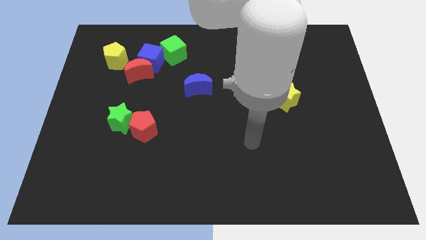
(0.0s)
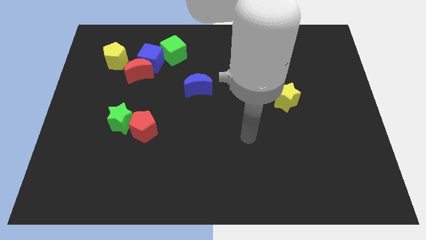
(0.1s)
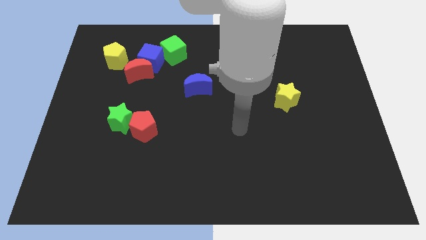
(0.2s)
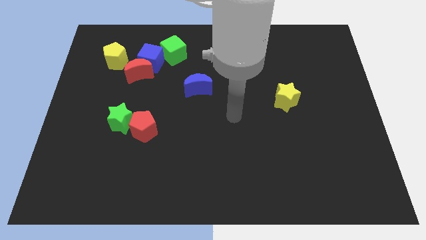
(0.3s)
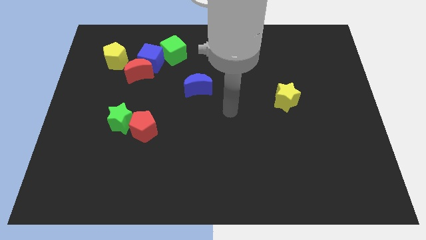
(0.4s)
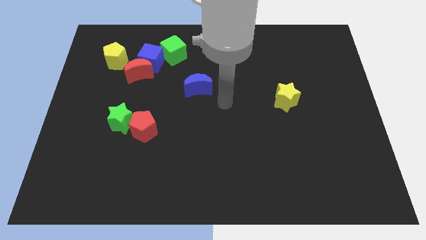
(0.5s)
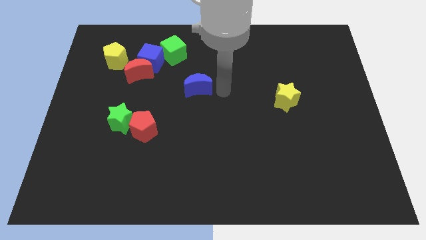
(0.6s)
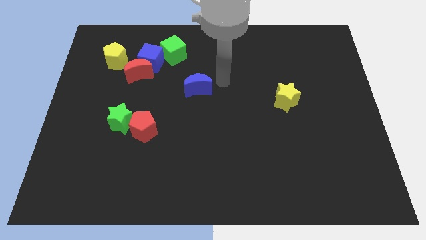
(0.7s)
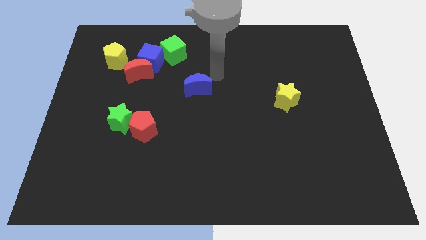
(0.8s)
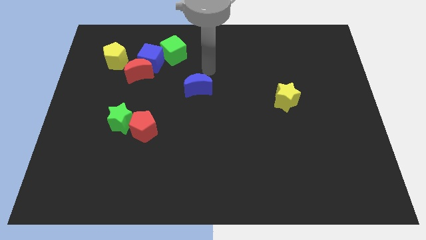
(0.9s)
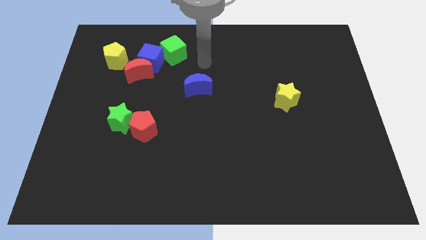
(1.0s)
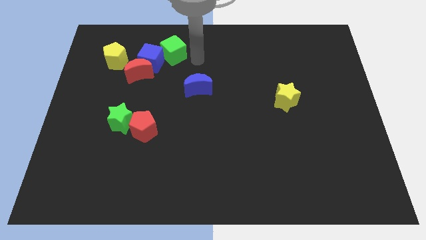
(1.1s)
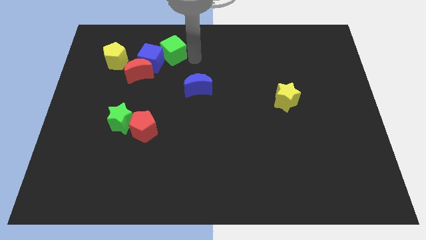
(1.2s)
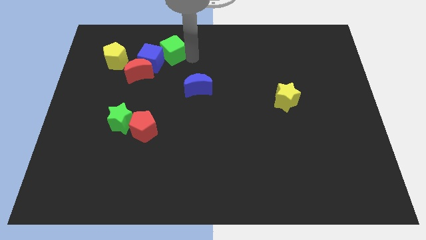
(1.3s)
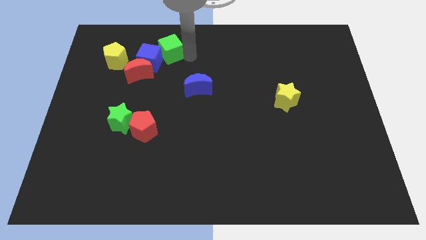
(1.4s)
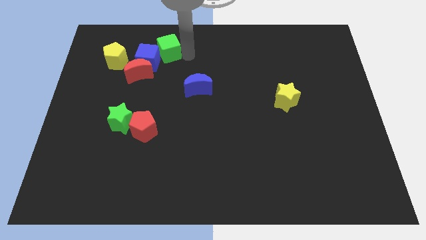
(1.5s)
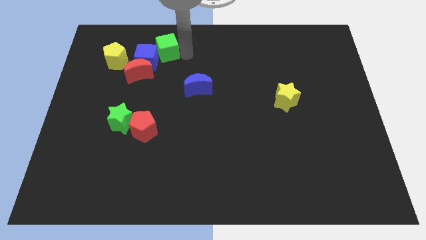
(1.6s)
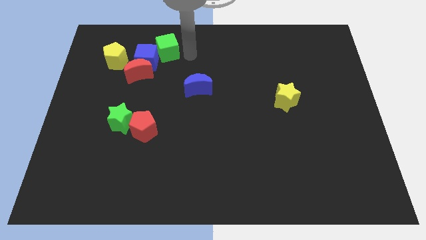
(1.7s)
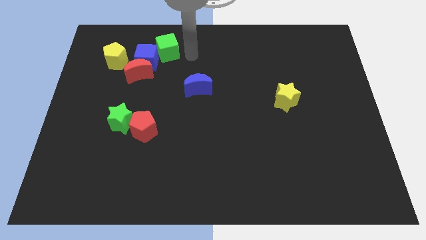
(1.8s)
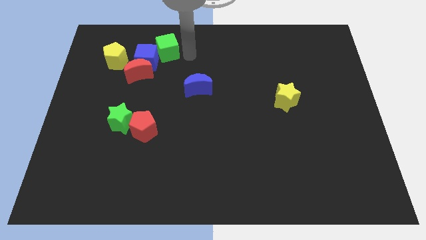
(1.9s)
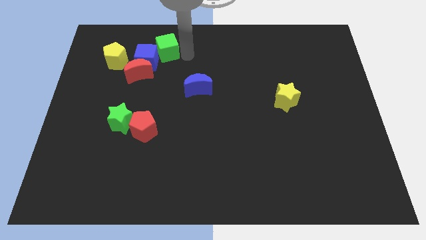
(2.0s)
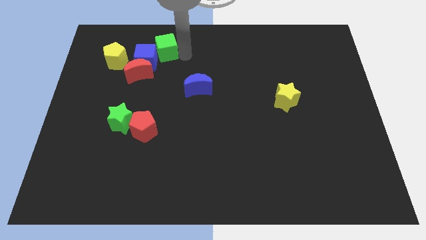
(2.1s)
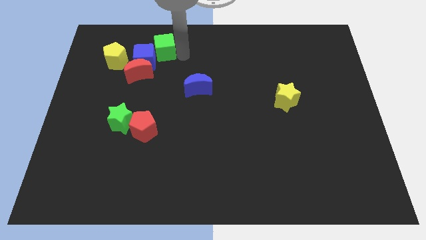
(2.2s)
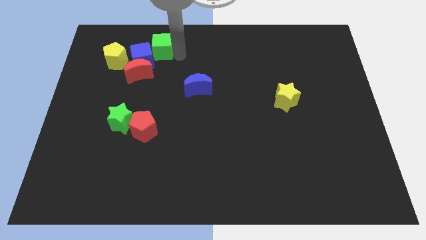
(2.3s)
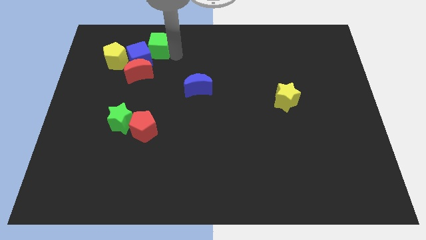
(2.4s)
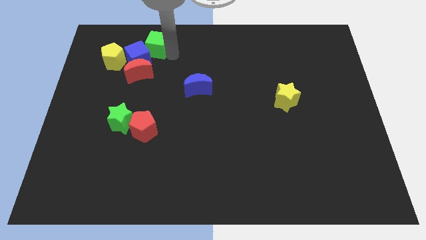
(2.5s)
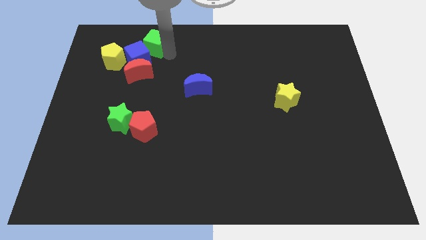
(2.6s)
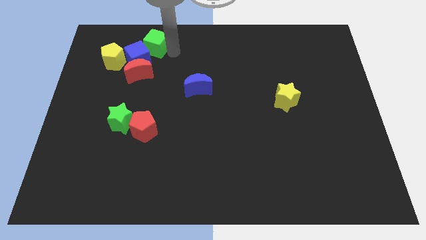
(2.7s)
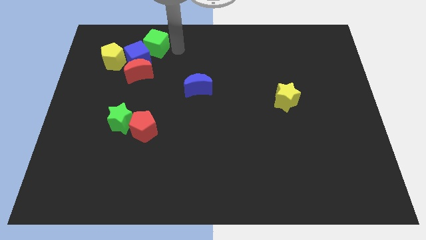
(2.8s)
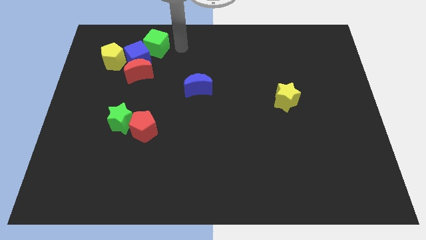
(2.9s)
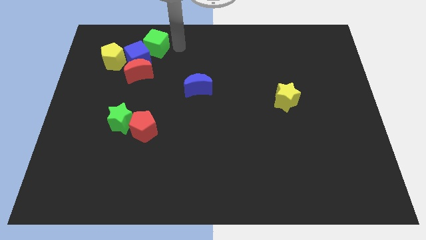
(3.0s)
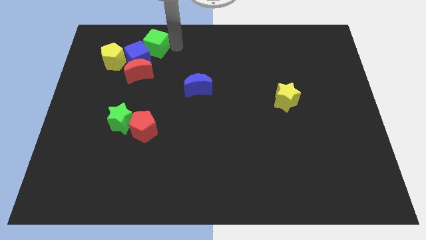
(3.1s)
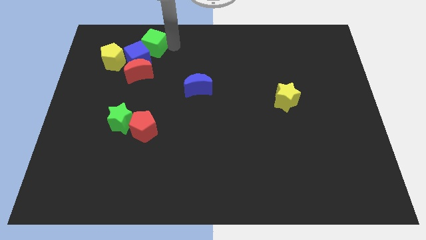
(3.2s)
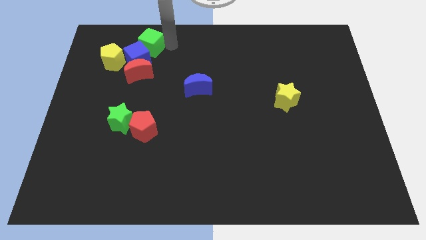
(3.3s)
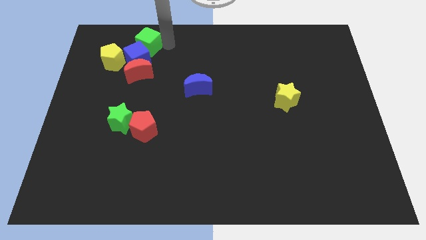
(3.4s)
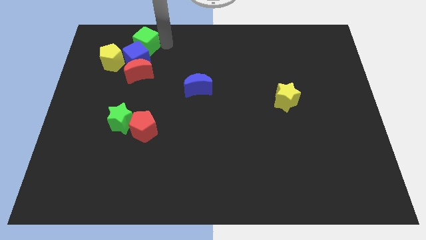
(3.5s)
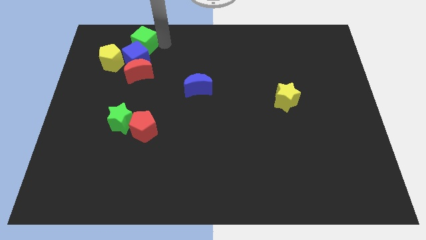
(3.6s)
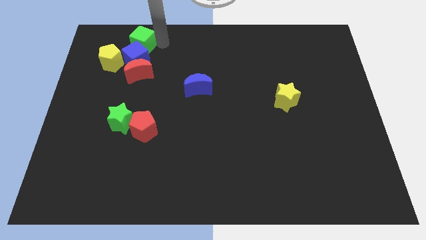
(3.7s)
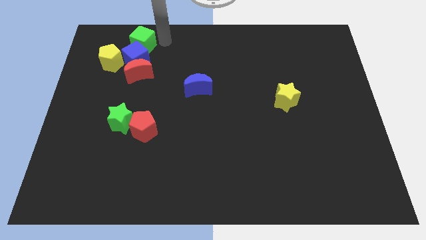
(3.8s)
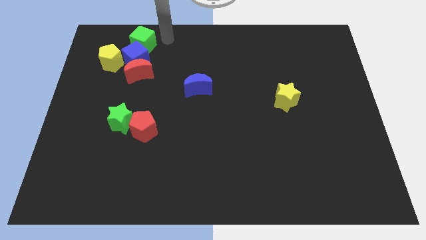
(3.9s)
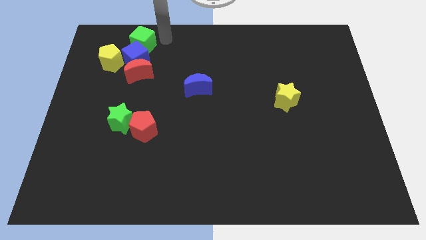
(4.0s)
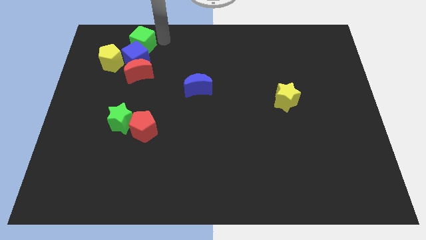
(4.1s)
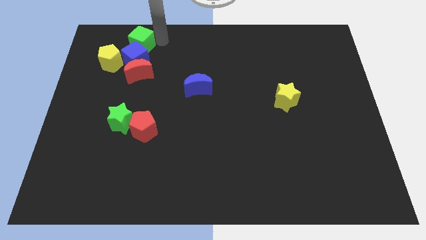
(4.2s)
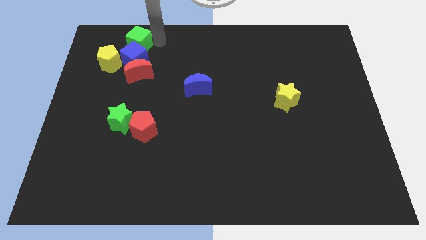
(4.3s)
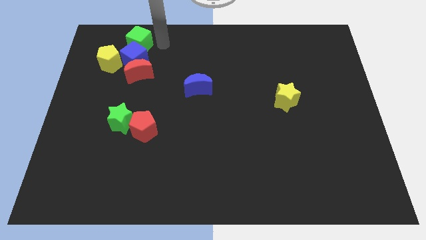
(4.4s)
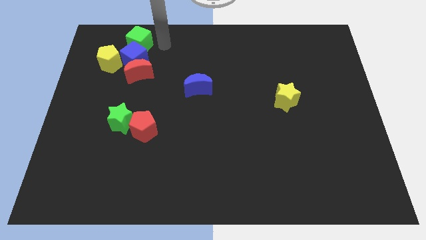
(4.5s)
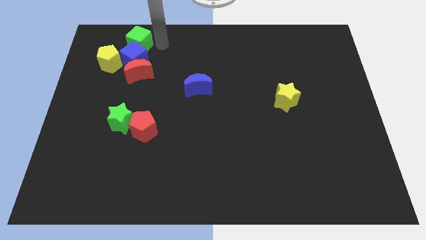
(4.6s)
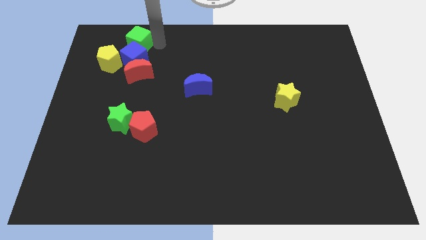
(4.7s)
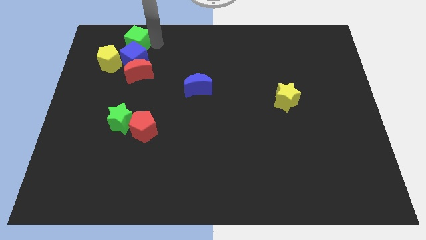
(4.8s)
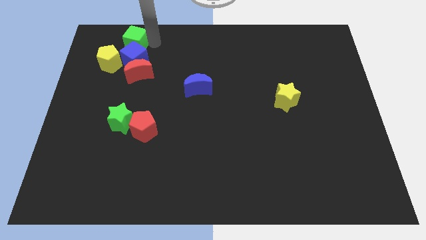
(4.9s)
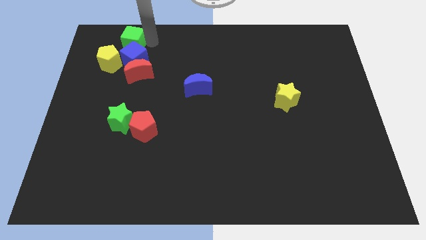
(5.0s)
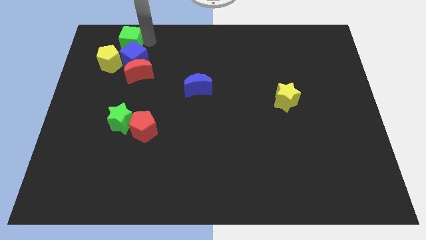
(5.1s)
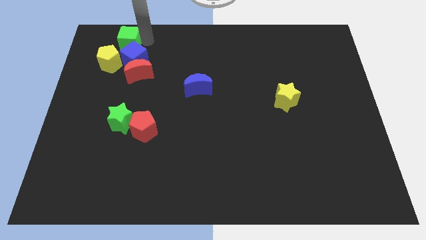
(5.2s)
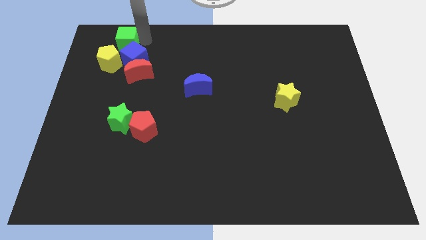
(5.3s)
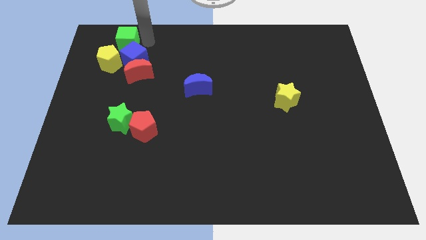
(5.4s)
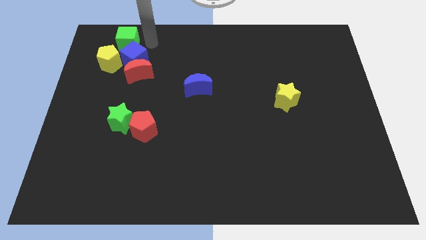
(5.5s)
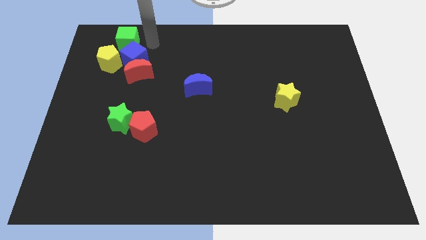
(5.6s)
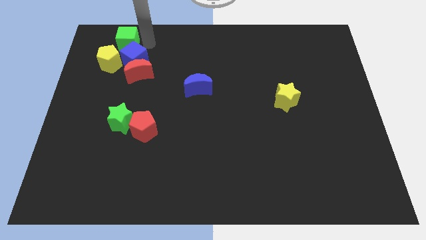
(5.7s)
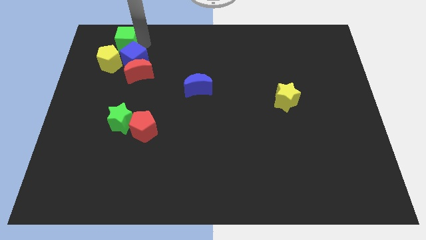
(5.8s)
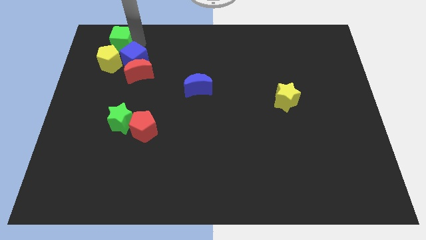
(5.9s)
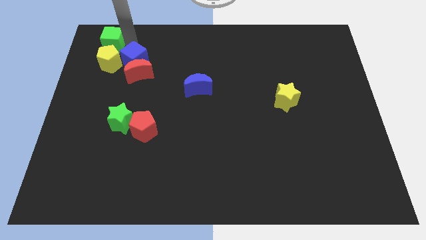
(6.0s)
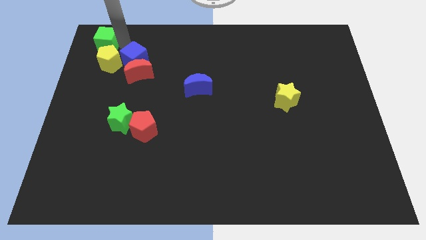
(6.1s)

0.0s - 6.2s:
put the green cube to the top left of the board
